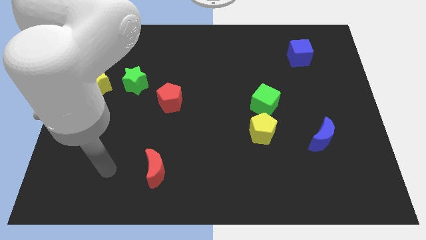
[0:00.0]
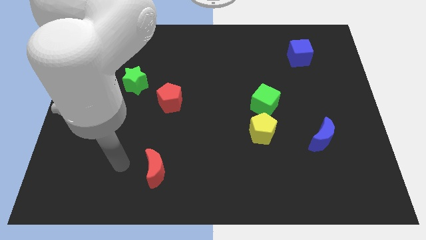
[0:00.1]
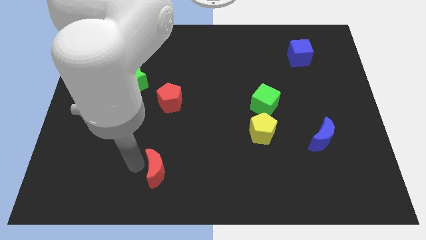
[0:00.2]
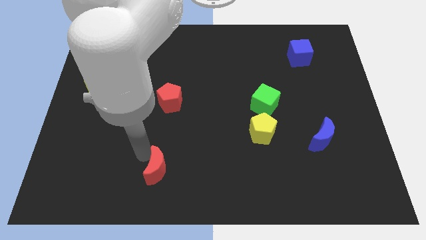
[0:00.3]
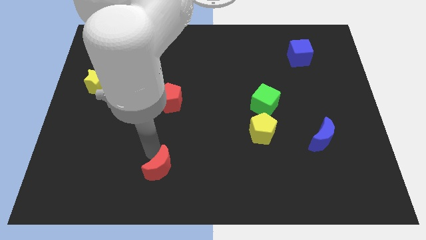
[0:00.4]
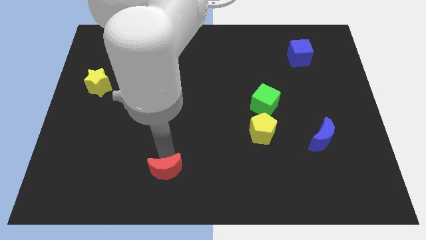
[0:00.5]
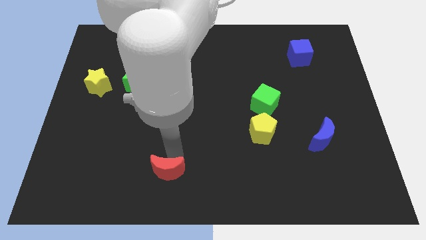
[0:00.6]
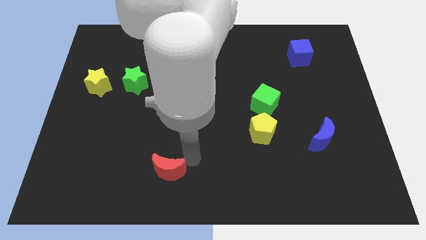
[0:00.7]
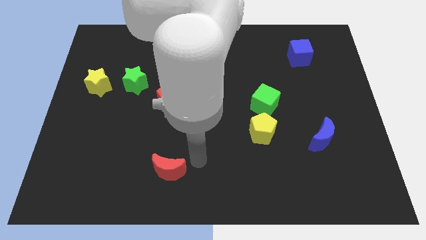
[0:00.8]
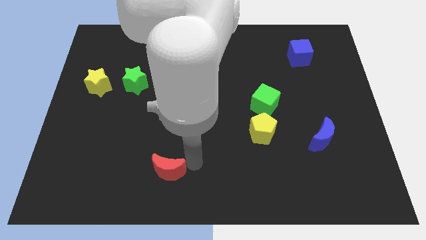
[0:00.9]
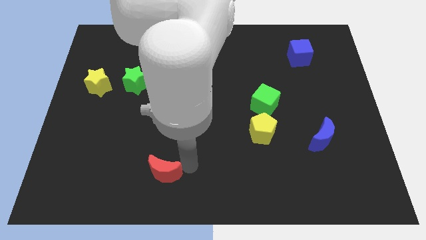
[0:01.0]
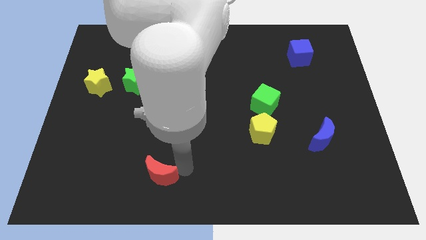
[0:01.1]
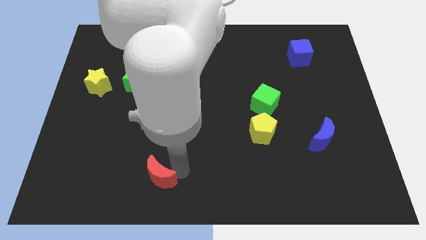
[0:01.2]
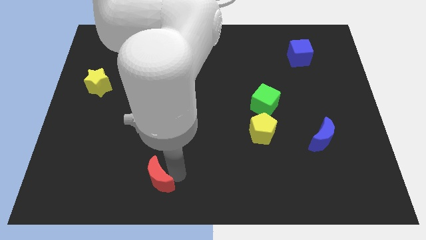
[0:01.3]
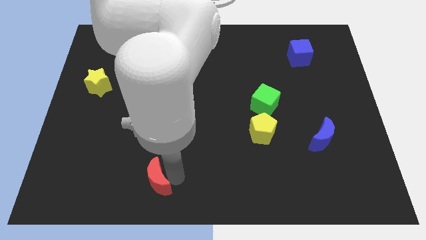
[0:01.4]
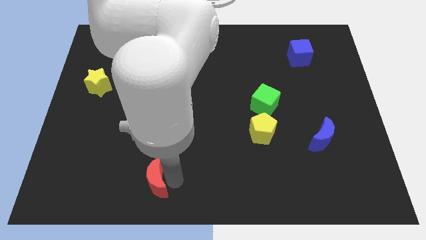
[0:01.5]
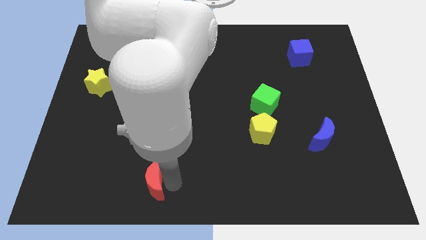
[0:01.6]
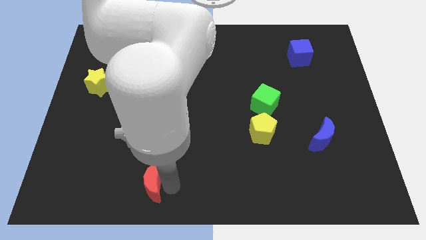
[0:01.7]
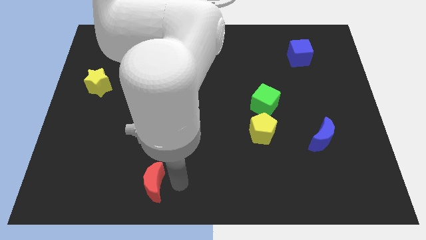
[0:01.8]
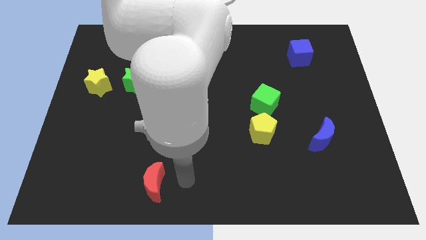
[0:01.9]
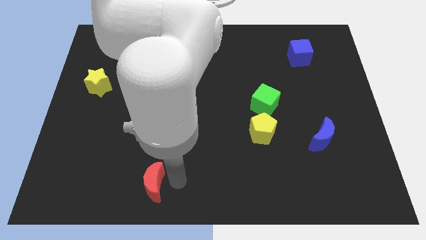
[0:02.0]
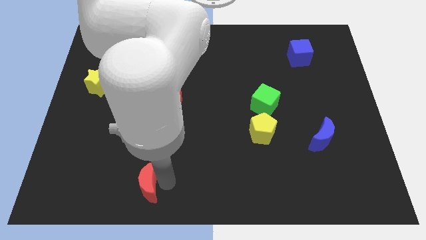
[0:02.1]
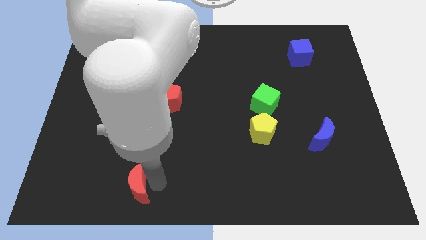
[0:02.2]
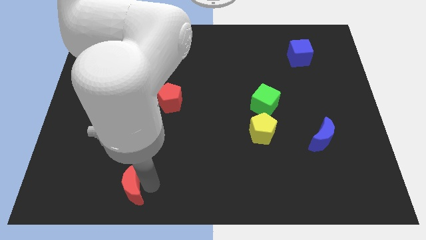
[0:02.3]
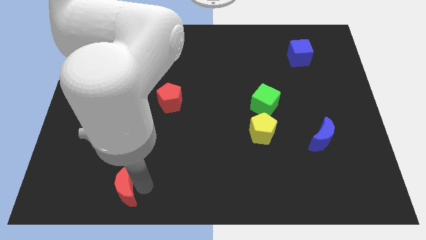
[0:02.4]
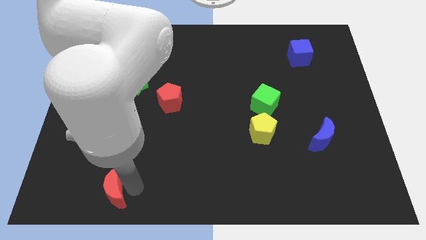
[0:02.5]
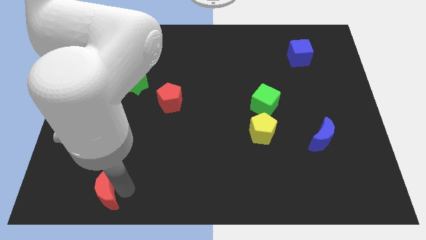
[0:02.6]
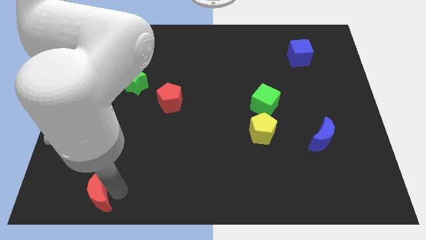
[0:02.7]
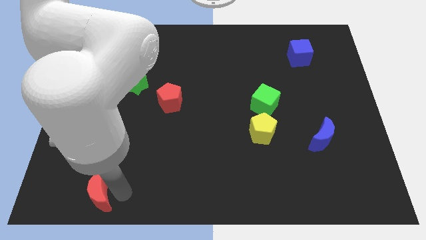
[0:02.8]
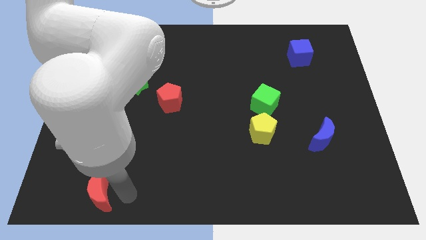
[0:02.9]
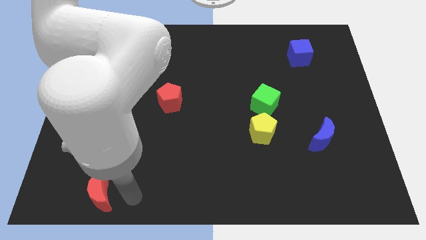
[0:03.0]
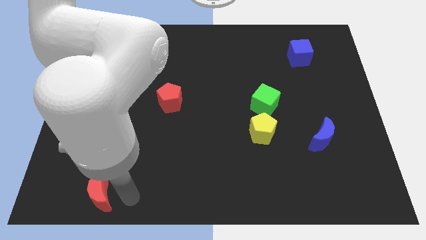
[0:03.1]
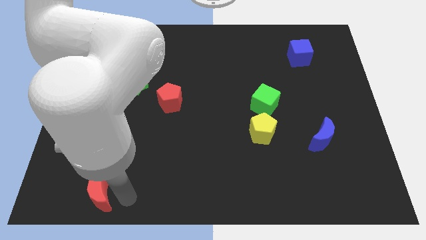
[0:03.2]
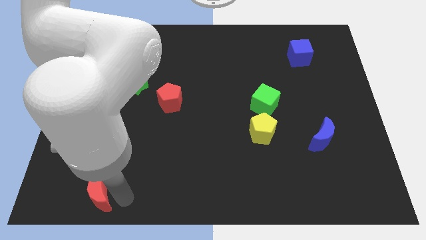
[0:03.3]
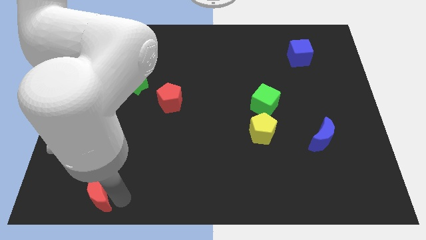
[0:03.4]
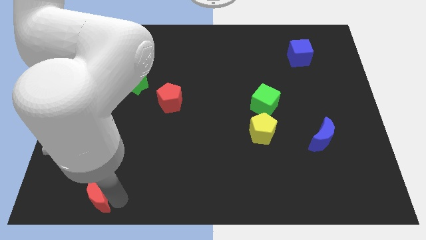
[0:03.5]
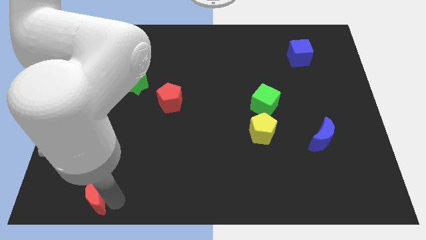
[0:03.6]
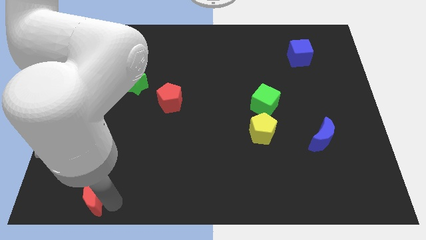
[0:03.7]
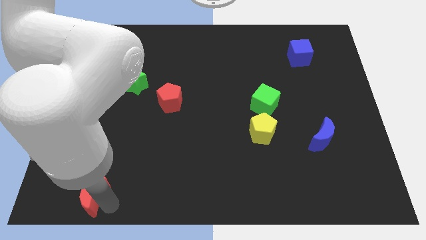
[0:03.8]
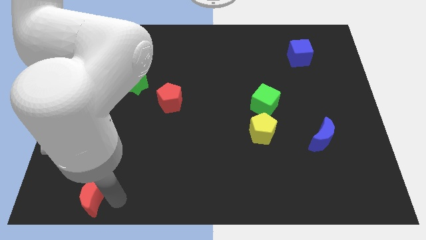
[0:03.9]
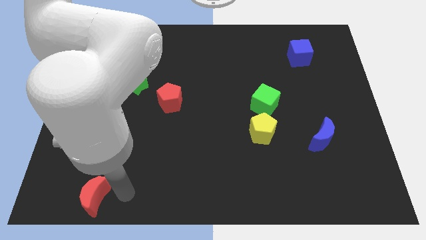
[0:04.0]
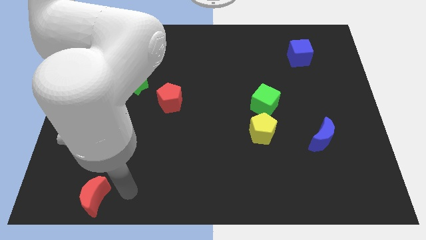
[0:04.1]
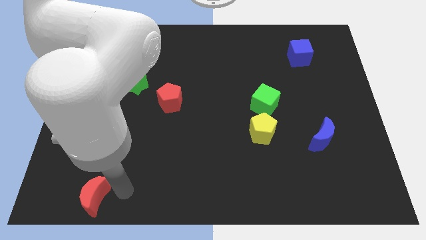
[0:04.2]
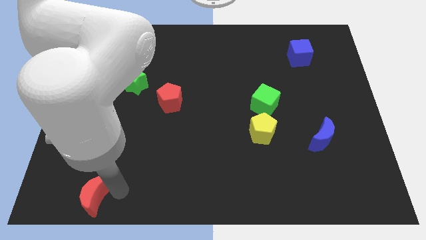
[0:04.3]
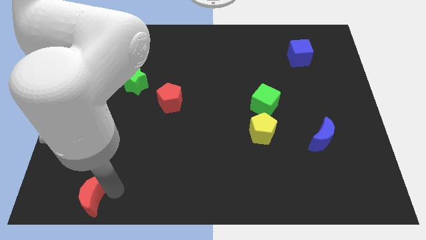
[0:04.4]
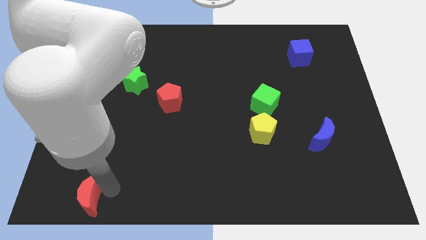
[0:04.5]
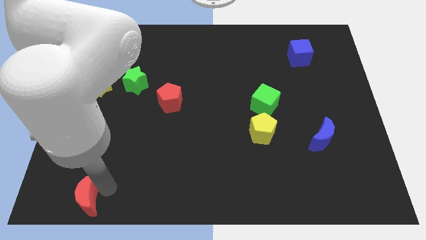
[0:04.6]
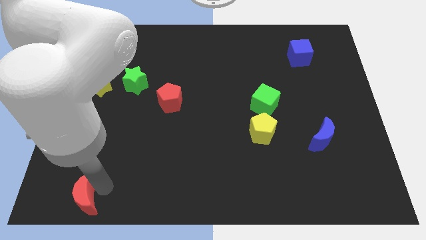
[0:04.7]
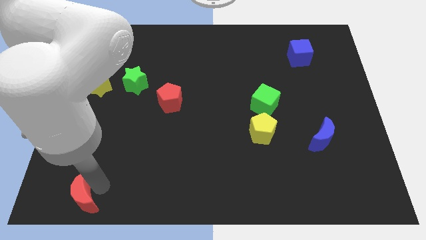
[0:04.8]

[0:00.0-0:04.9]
put the red moon to the lower left corner
